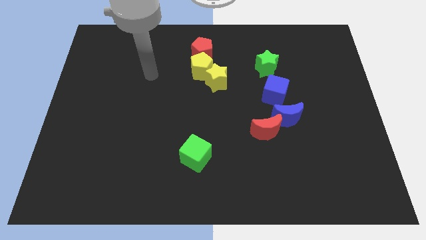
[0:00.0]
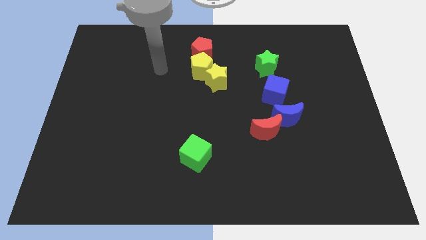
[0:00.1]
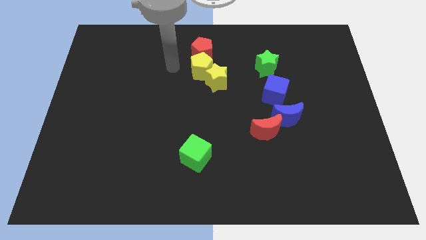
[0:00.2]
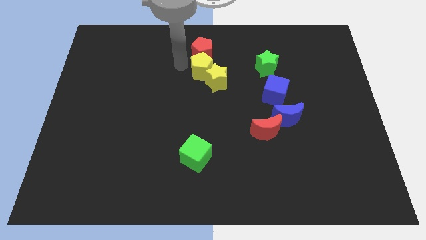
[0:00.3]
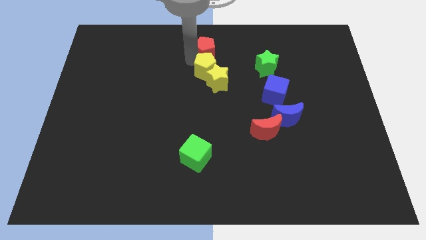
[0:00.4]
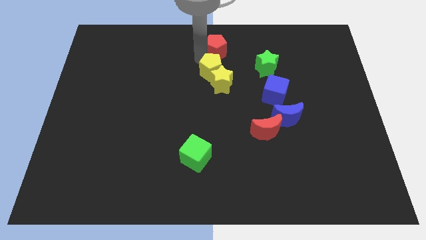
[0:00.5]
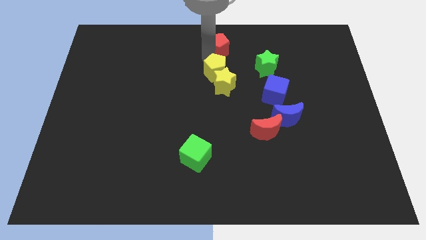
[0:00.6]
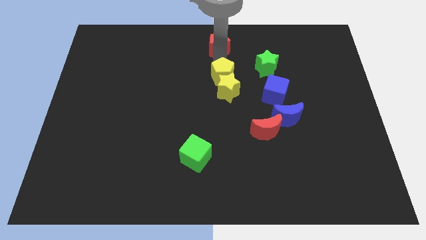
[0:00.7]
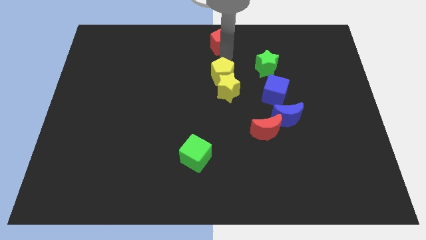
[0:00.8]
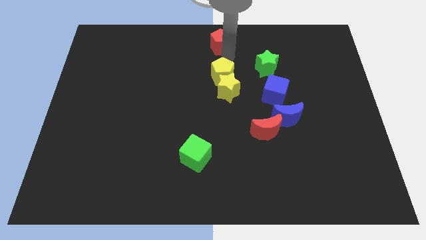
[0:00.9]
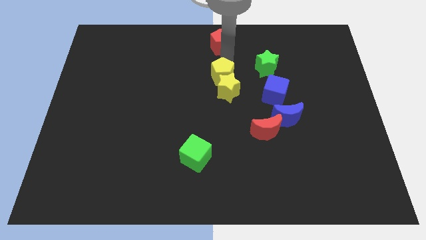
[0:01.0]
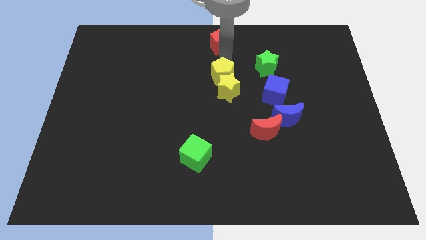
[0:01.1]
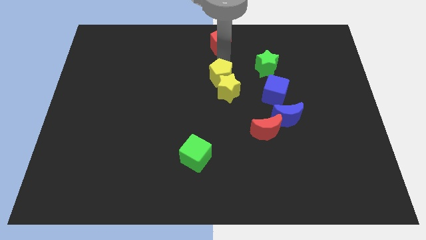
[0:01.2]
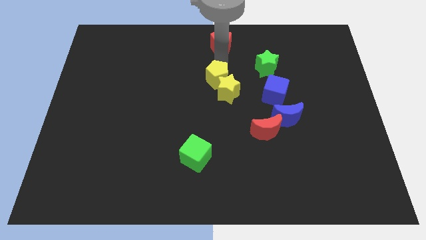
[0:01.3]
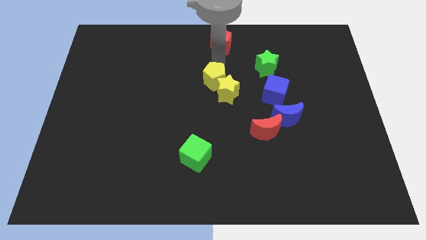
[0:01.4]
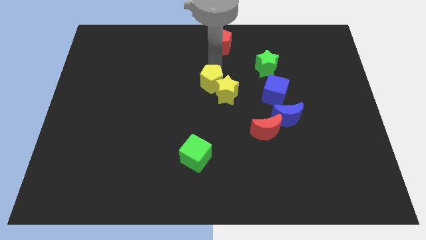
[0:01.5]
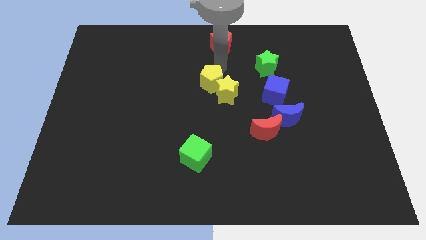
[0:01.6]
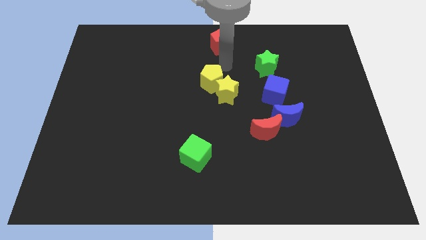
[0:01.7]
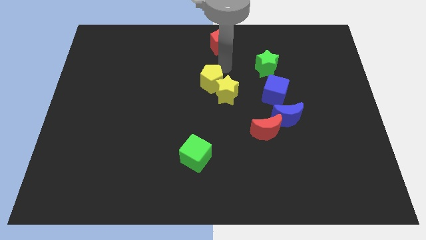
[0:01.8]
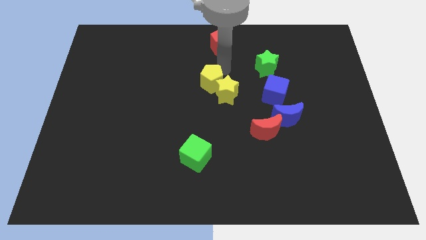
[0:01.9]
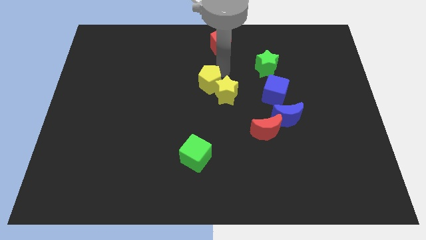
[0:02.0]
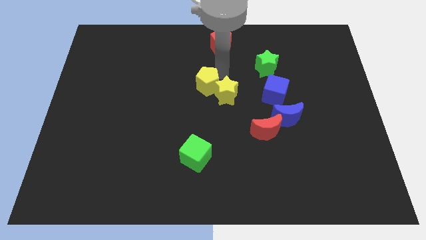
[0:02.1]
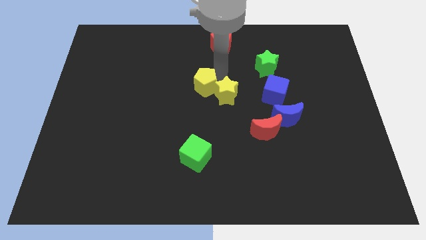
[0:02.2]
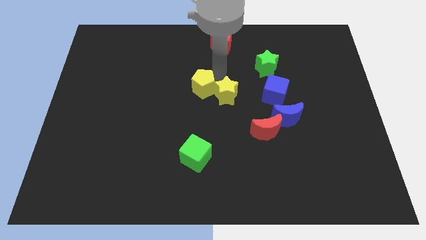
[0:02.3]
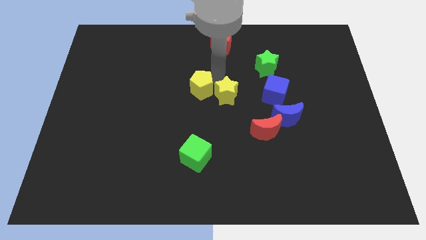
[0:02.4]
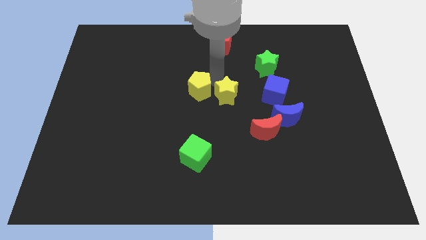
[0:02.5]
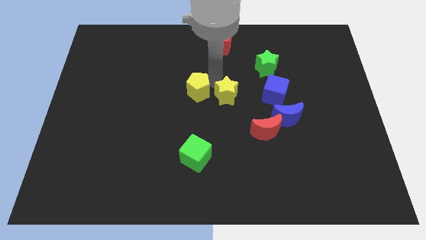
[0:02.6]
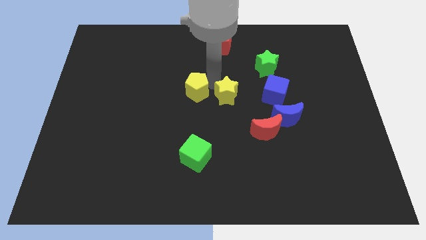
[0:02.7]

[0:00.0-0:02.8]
move the yellow pentagon away from the yellow star and red pentagon

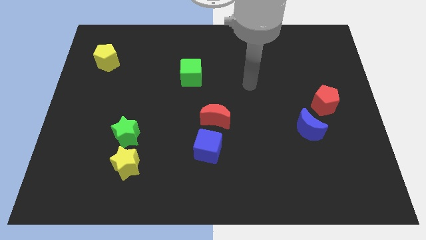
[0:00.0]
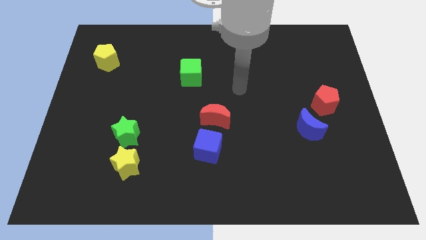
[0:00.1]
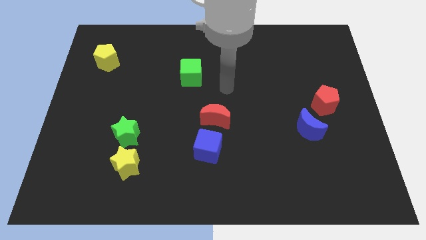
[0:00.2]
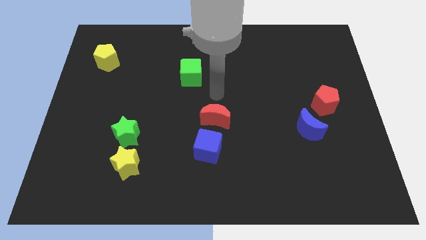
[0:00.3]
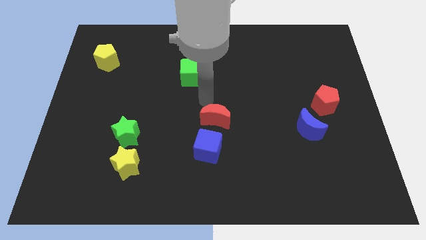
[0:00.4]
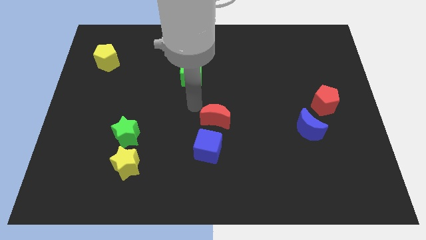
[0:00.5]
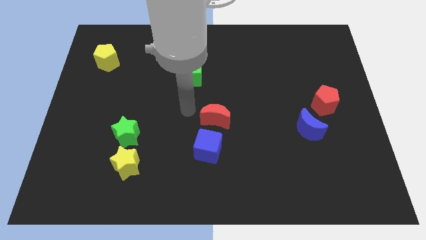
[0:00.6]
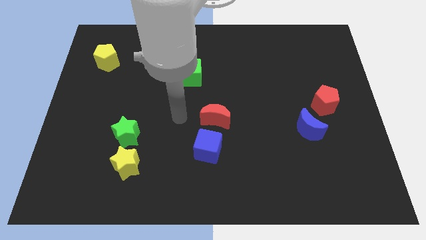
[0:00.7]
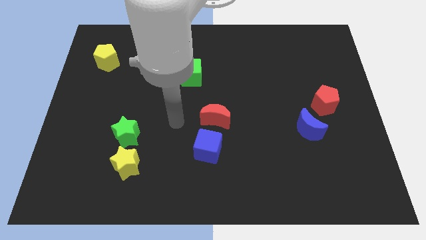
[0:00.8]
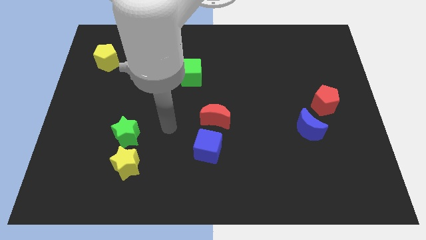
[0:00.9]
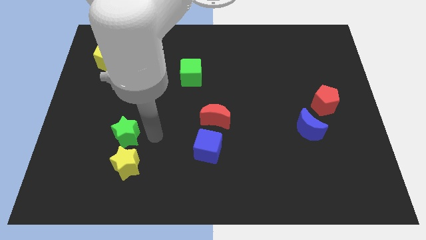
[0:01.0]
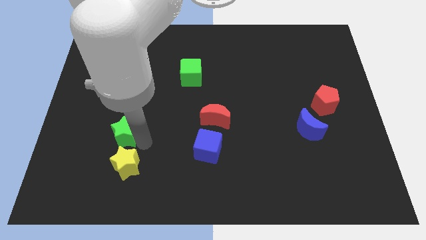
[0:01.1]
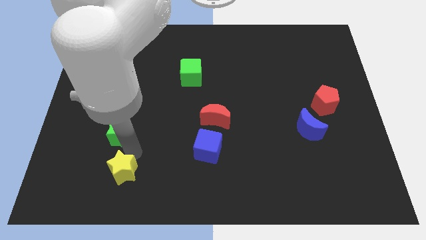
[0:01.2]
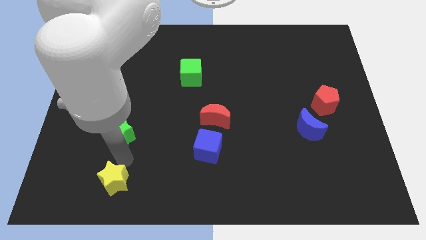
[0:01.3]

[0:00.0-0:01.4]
pull the green star apart from the yellow star

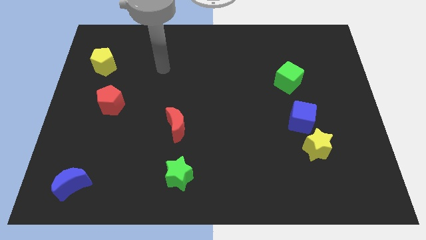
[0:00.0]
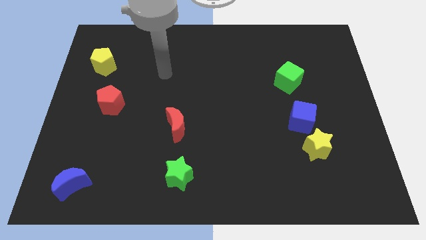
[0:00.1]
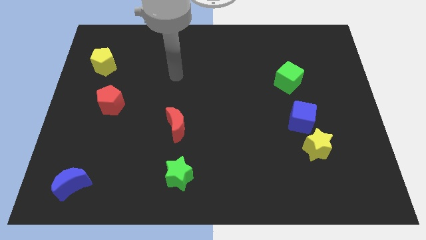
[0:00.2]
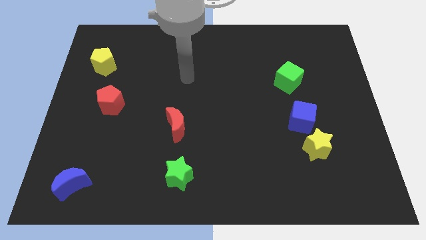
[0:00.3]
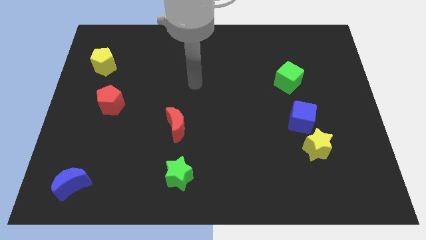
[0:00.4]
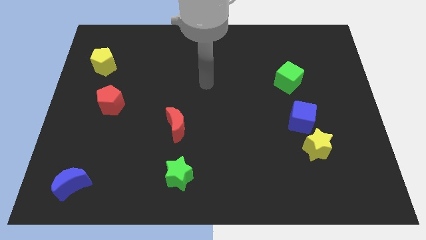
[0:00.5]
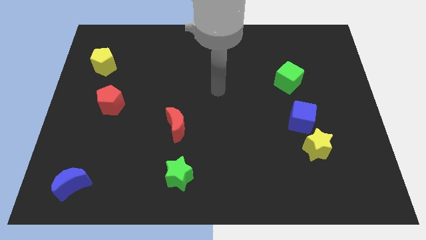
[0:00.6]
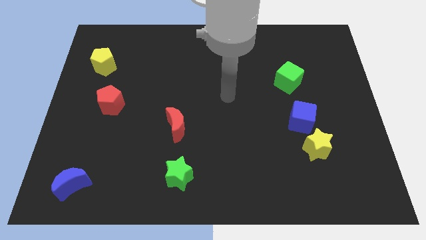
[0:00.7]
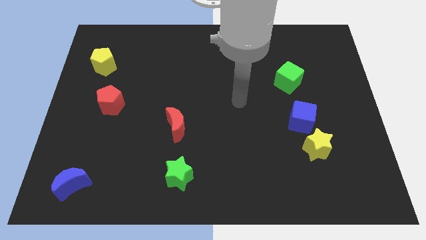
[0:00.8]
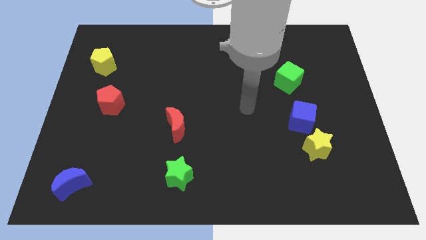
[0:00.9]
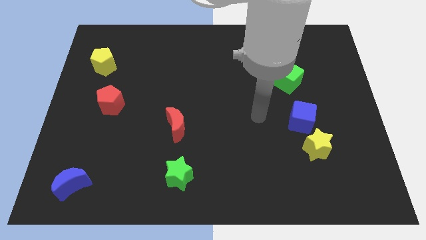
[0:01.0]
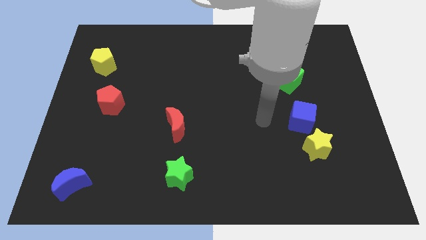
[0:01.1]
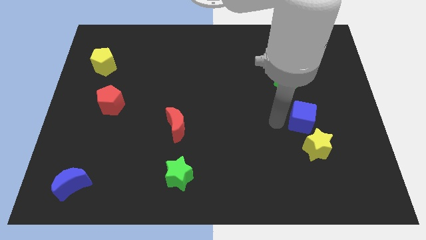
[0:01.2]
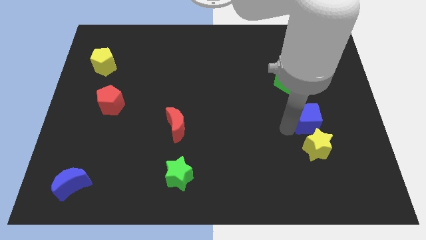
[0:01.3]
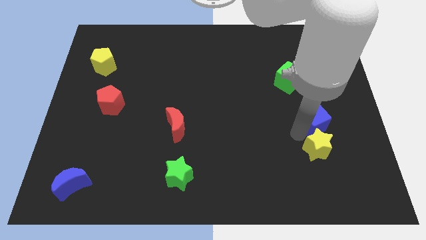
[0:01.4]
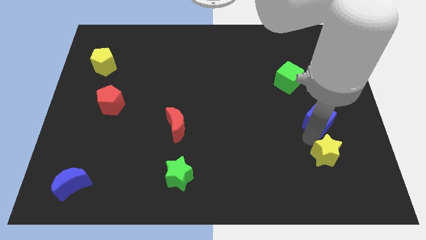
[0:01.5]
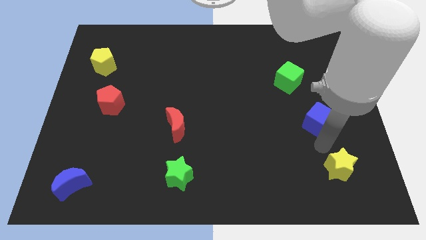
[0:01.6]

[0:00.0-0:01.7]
pull the blue cube apart from the yellow star

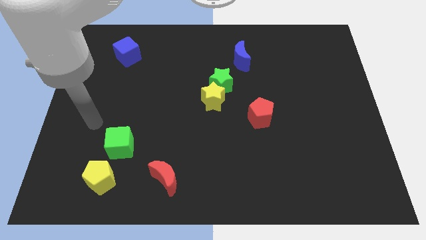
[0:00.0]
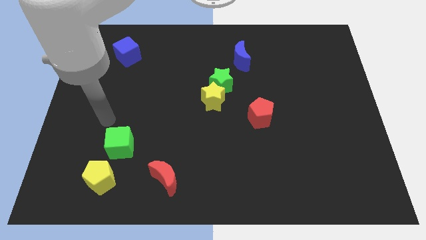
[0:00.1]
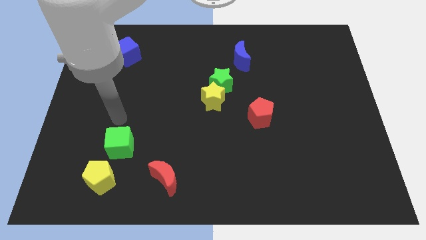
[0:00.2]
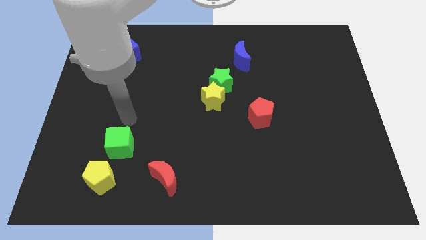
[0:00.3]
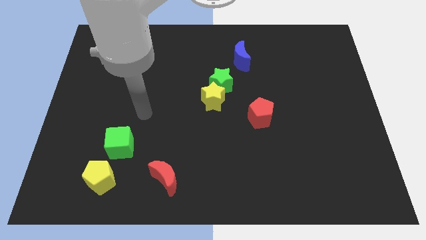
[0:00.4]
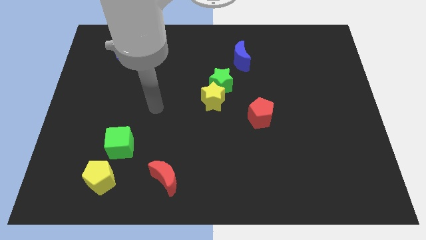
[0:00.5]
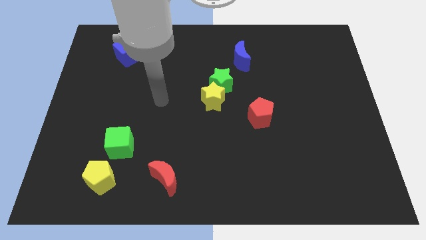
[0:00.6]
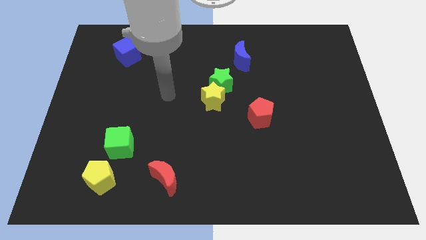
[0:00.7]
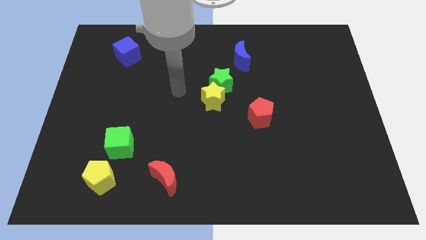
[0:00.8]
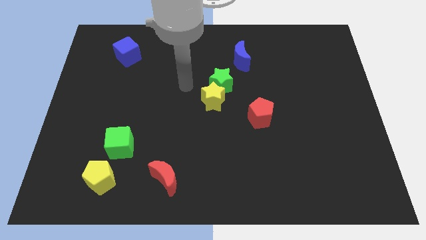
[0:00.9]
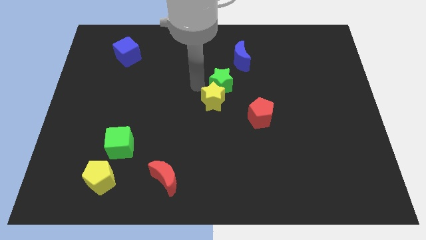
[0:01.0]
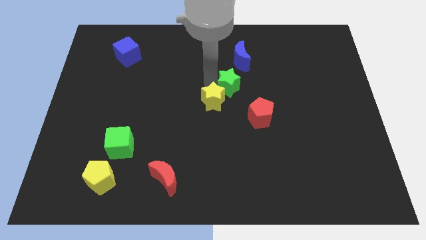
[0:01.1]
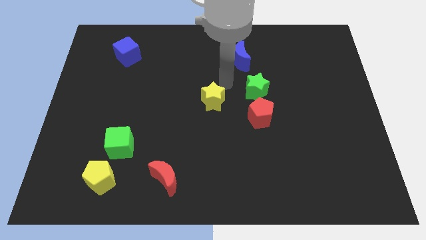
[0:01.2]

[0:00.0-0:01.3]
move the yellow star away from the green star

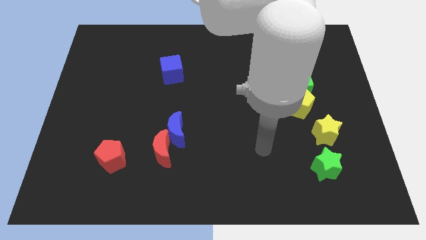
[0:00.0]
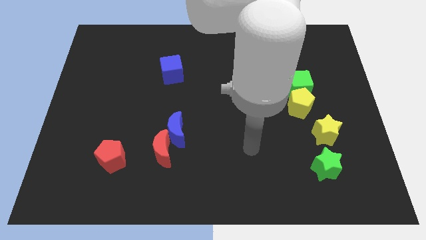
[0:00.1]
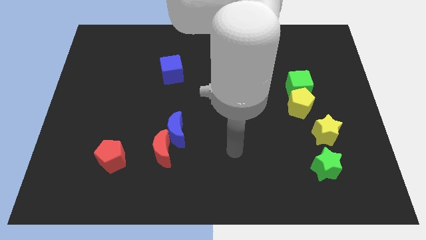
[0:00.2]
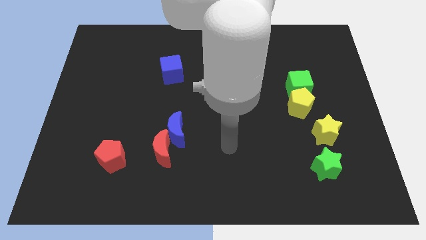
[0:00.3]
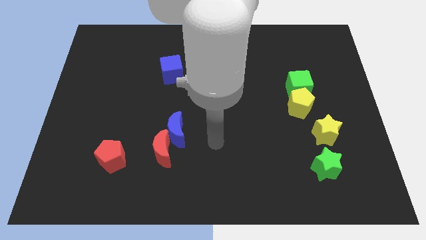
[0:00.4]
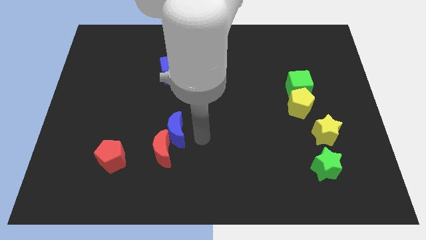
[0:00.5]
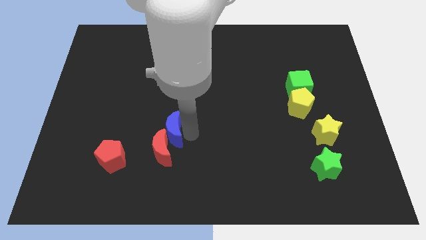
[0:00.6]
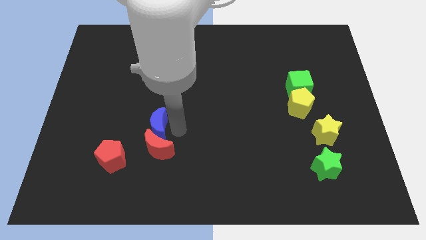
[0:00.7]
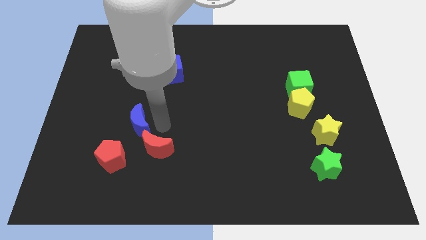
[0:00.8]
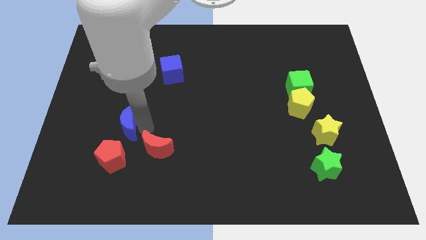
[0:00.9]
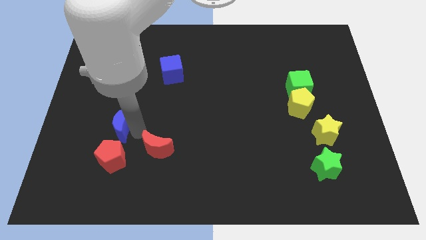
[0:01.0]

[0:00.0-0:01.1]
move the red moon away from the blue moon

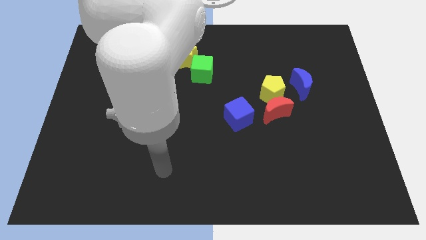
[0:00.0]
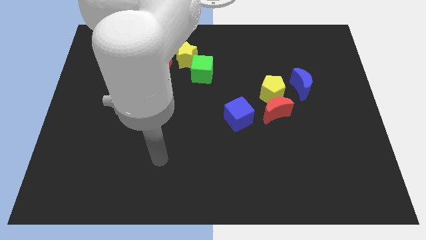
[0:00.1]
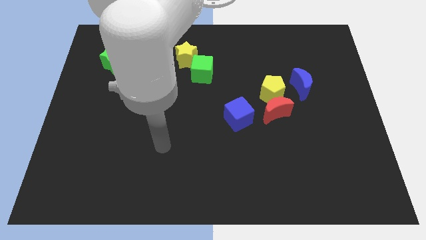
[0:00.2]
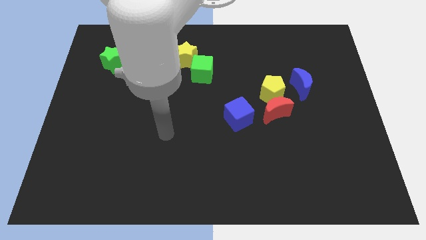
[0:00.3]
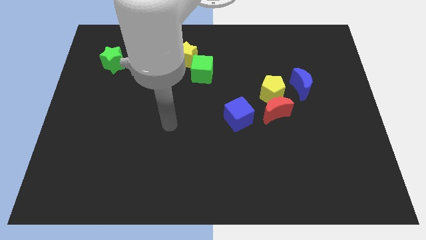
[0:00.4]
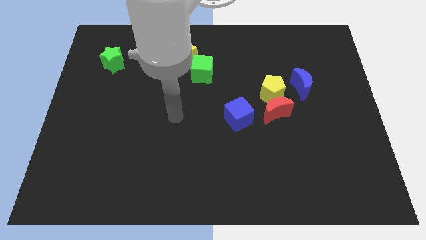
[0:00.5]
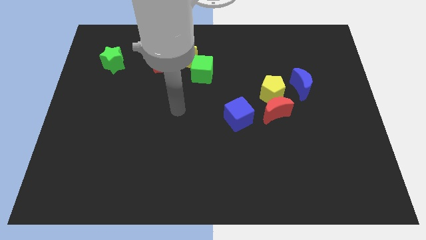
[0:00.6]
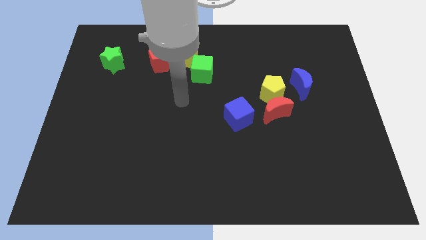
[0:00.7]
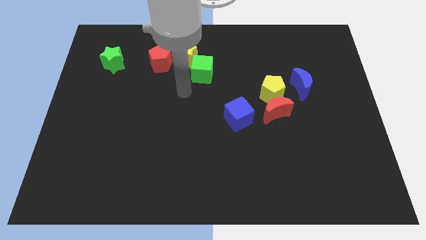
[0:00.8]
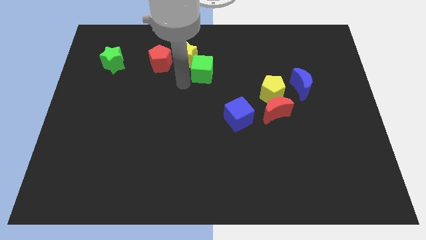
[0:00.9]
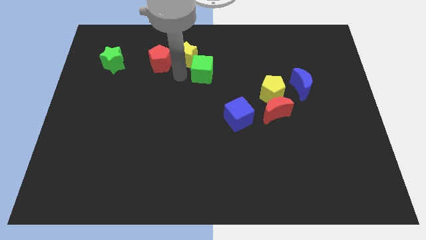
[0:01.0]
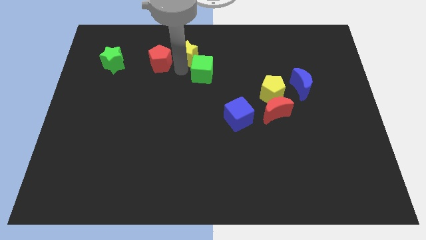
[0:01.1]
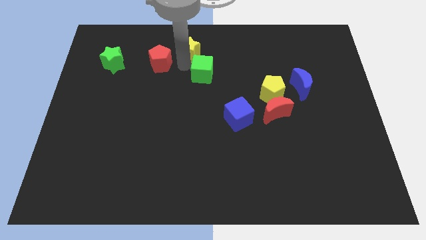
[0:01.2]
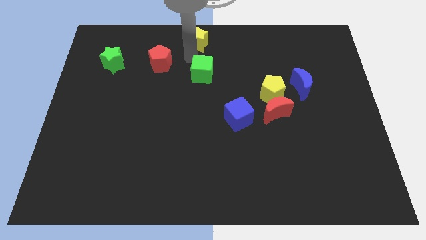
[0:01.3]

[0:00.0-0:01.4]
move the green cube away from the yellow star
